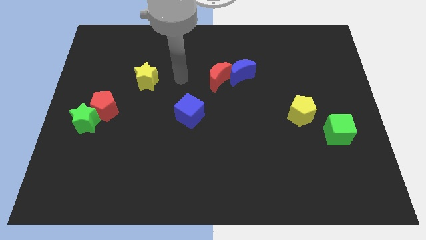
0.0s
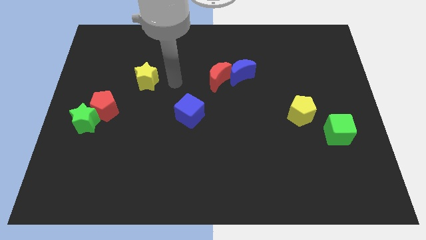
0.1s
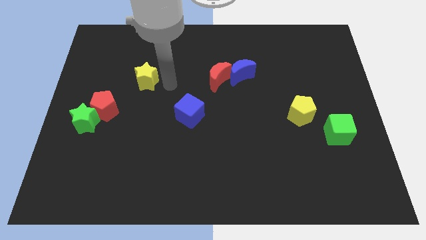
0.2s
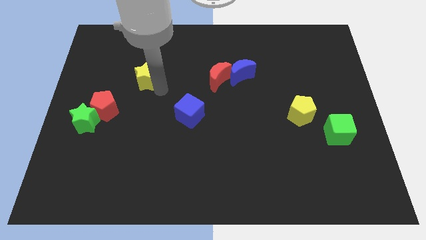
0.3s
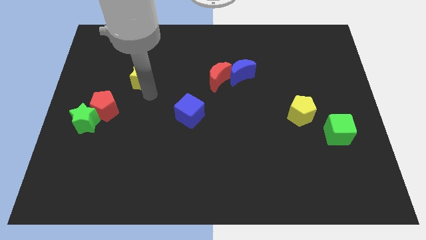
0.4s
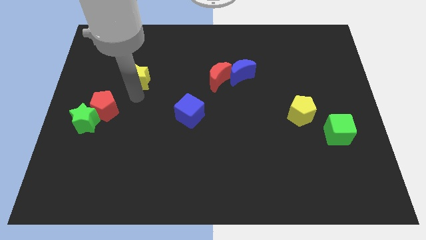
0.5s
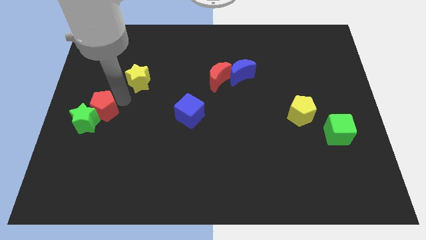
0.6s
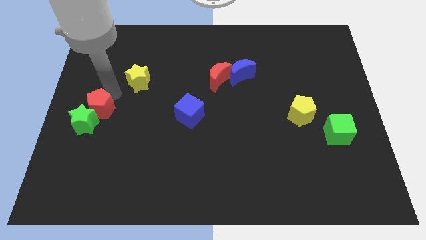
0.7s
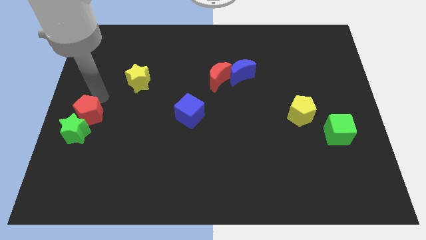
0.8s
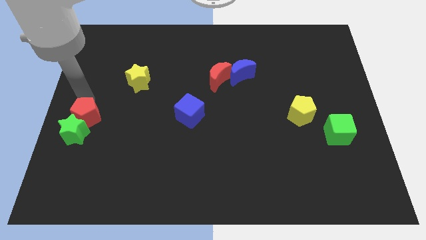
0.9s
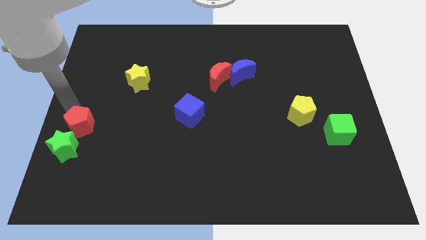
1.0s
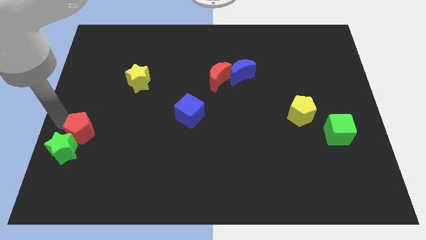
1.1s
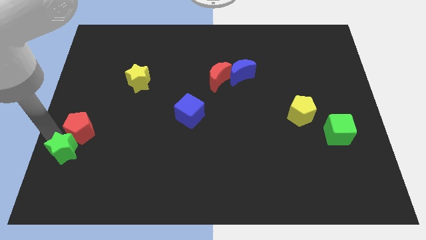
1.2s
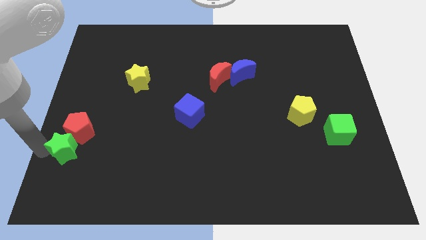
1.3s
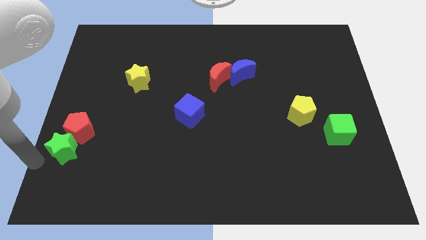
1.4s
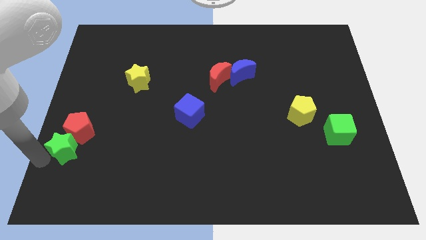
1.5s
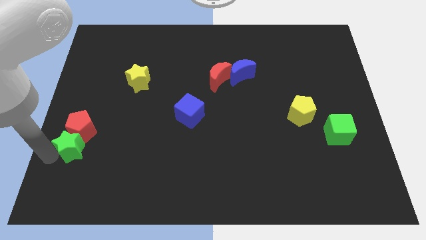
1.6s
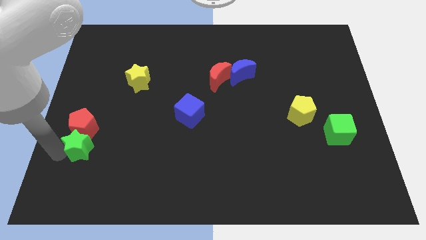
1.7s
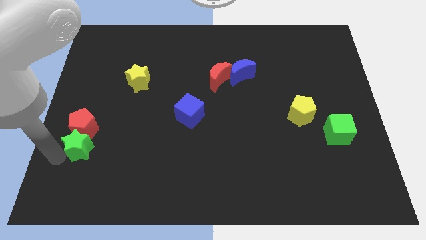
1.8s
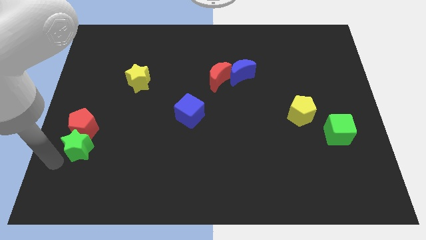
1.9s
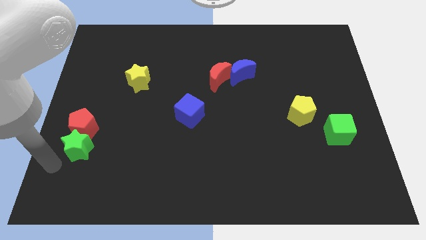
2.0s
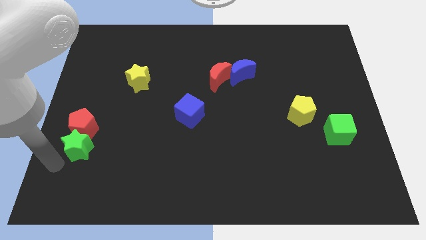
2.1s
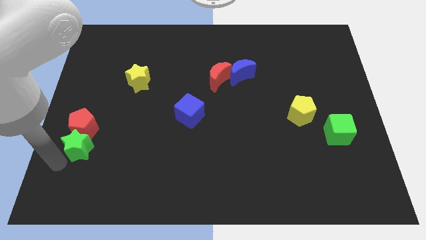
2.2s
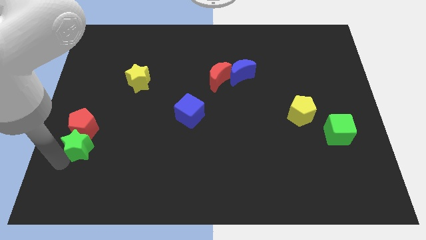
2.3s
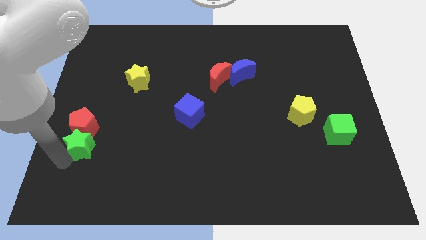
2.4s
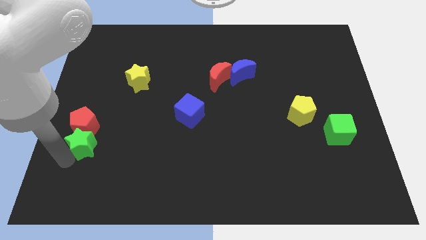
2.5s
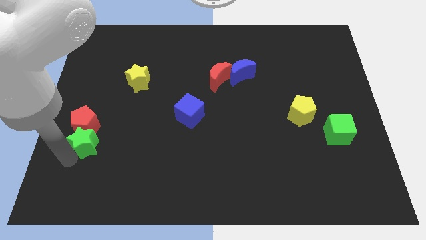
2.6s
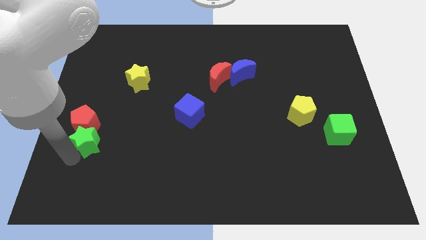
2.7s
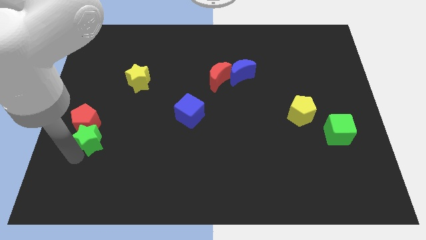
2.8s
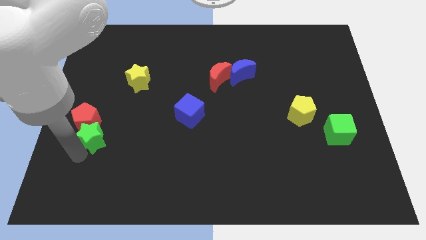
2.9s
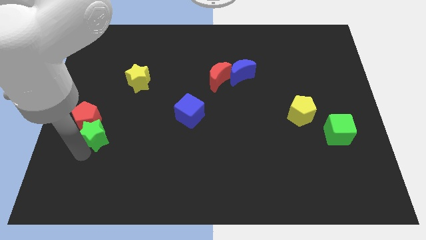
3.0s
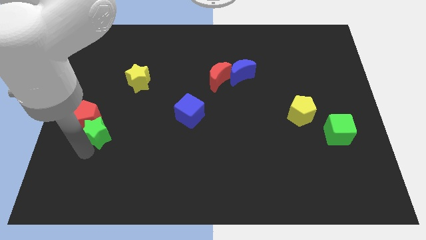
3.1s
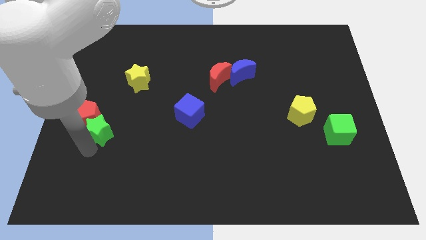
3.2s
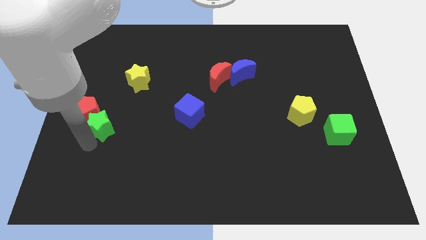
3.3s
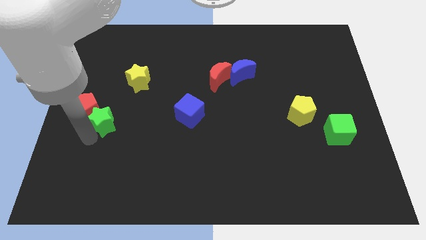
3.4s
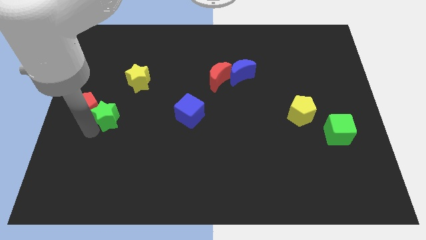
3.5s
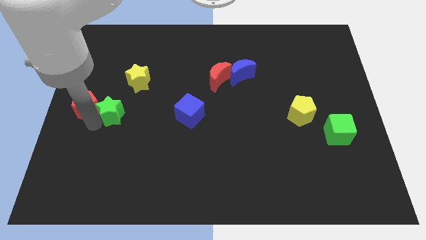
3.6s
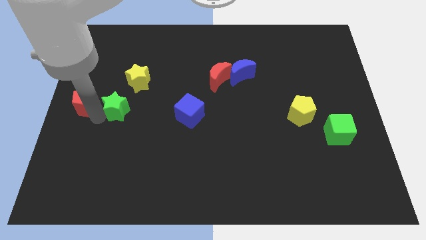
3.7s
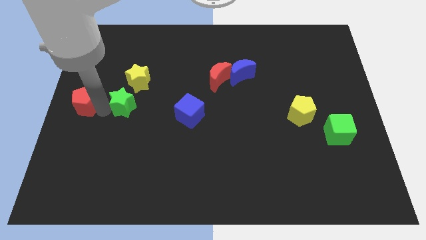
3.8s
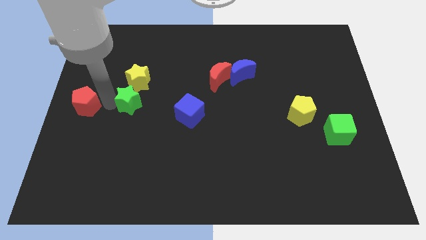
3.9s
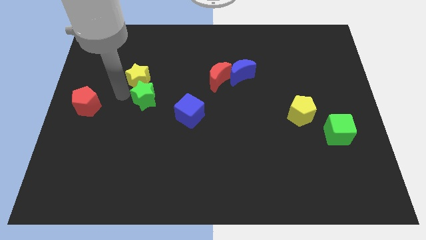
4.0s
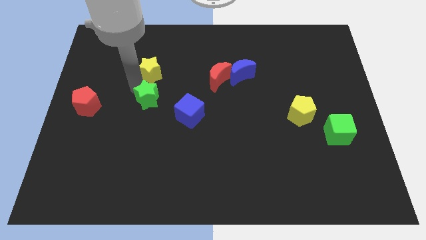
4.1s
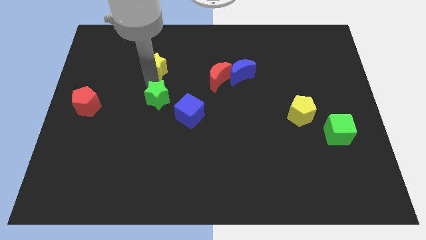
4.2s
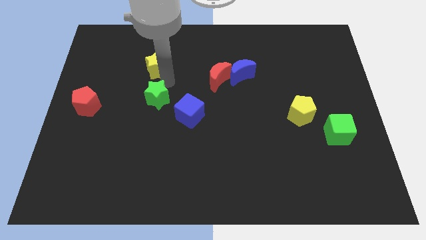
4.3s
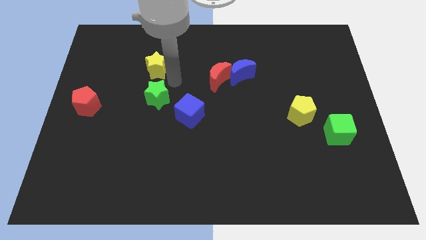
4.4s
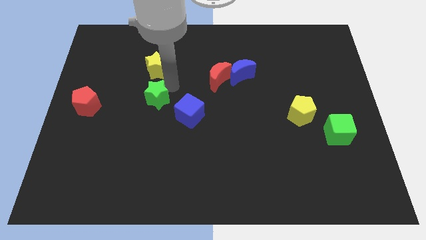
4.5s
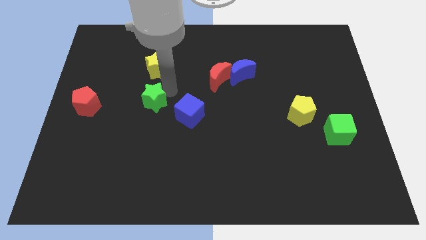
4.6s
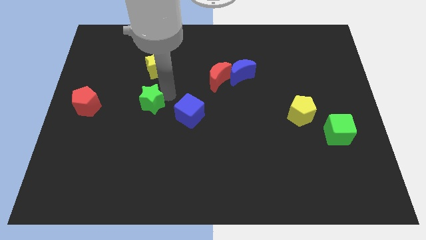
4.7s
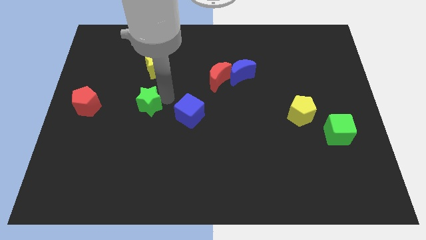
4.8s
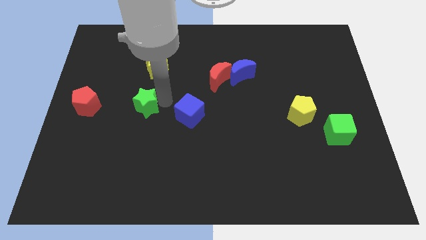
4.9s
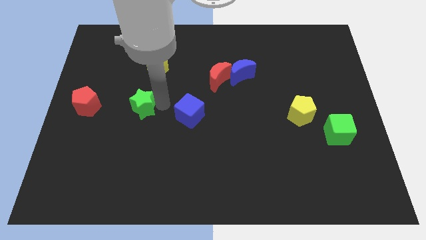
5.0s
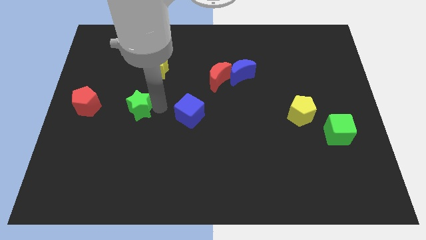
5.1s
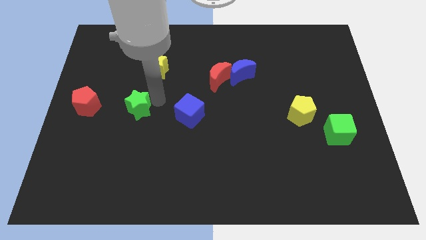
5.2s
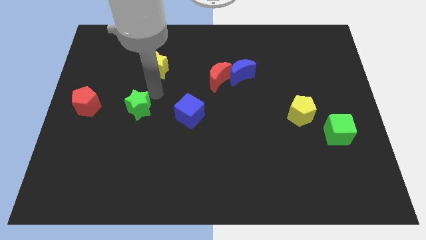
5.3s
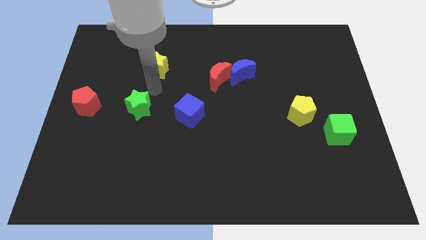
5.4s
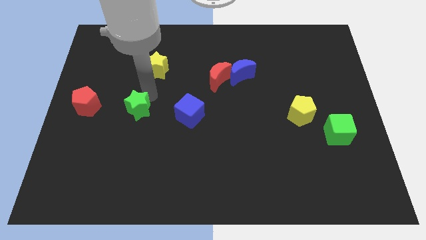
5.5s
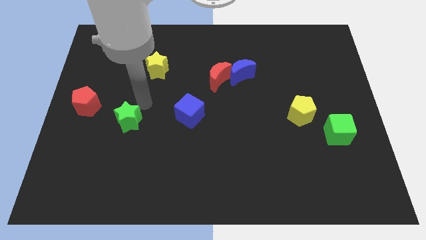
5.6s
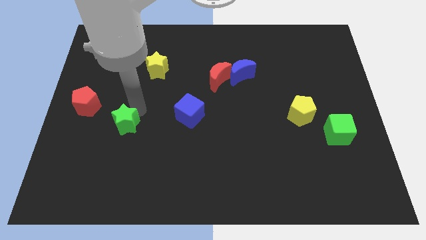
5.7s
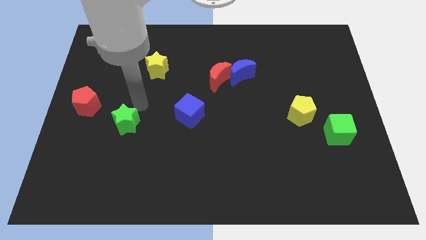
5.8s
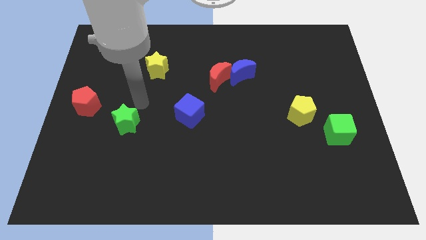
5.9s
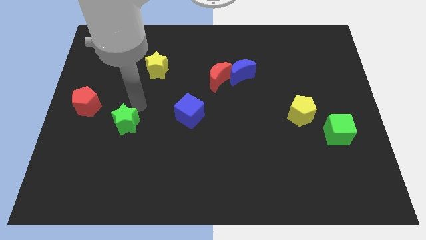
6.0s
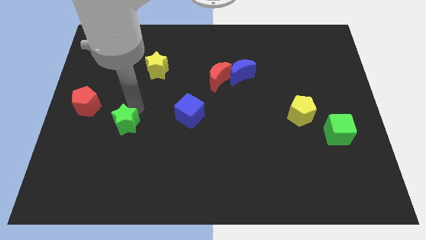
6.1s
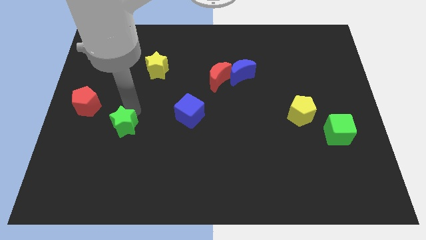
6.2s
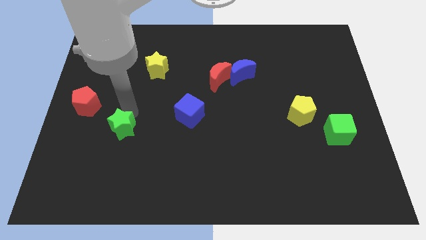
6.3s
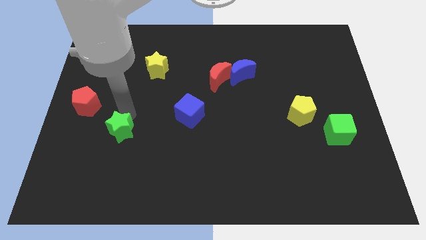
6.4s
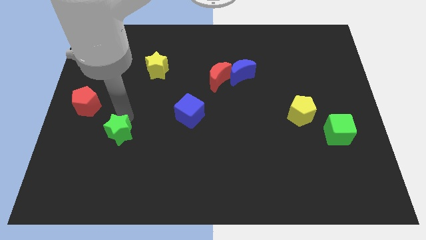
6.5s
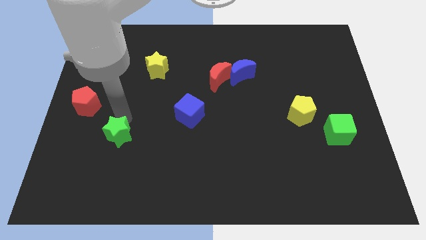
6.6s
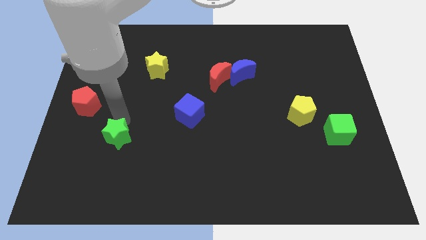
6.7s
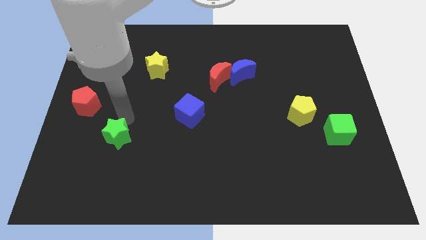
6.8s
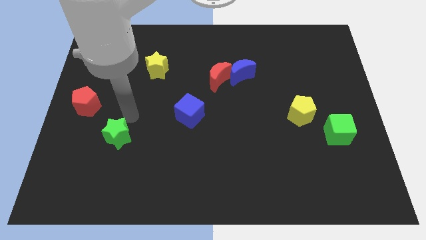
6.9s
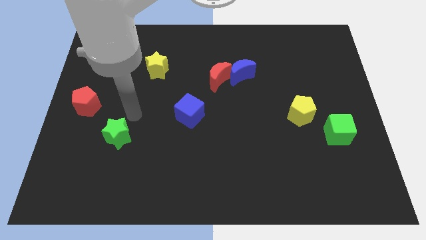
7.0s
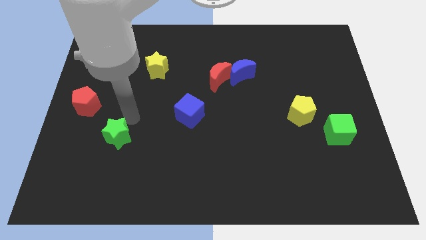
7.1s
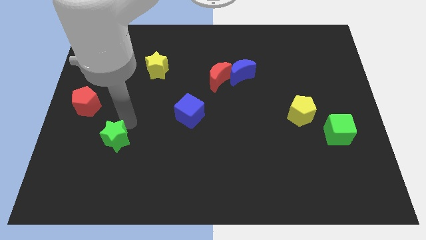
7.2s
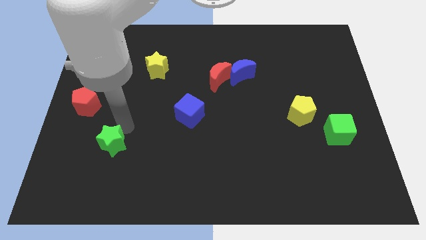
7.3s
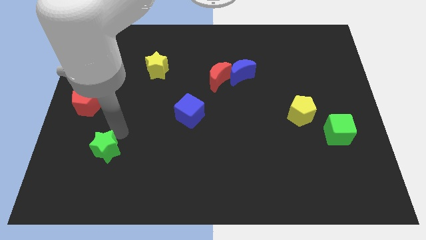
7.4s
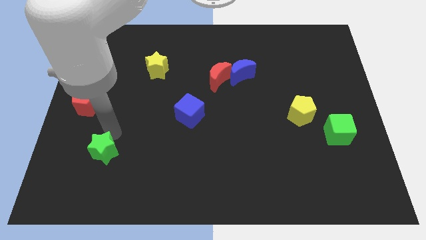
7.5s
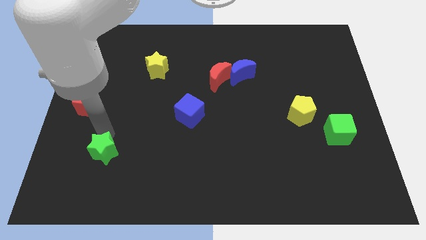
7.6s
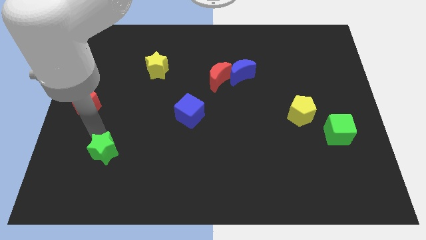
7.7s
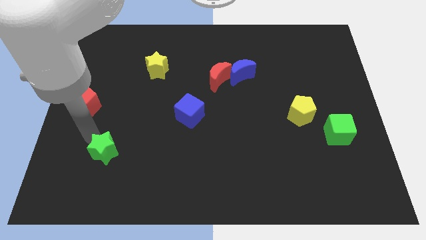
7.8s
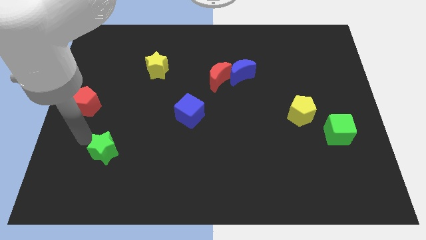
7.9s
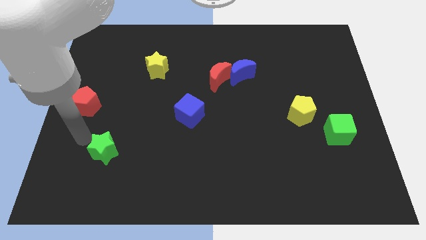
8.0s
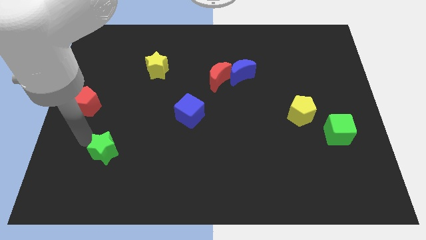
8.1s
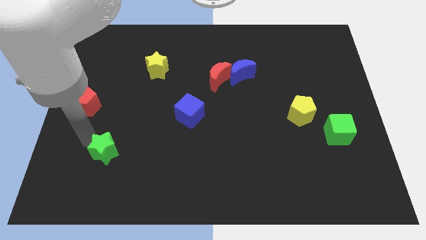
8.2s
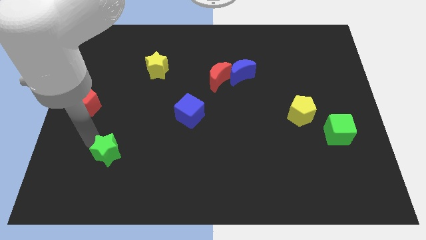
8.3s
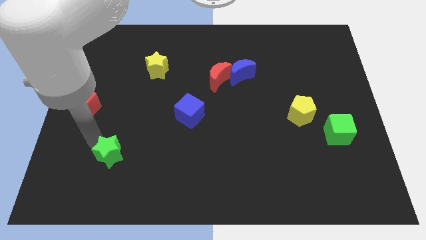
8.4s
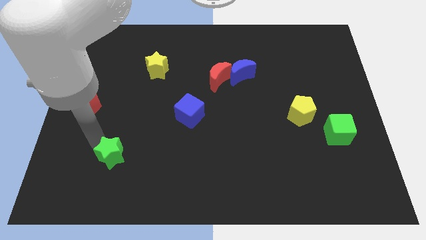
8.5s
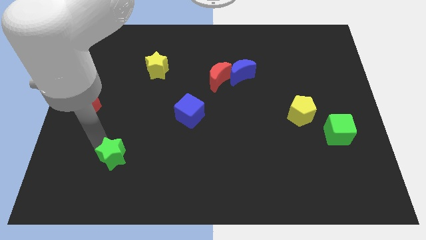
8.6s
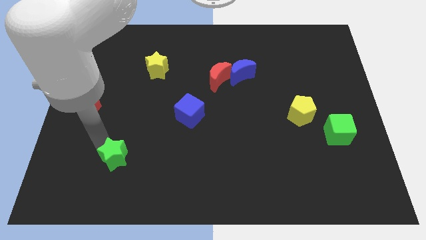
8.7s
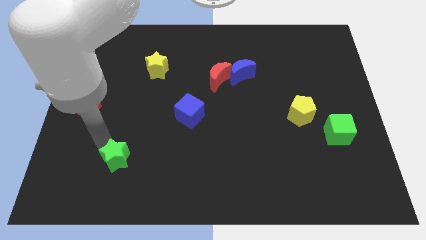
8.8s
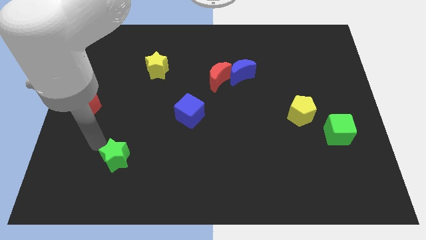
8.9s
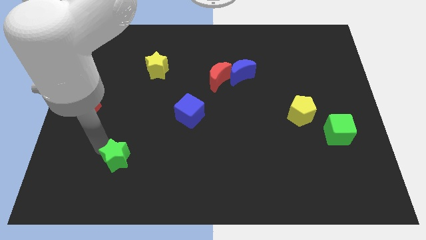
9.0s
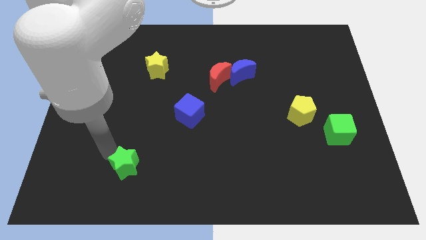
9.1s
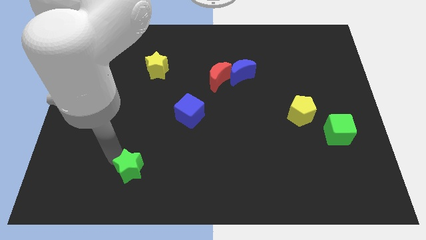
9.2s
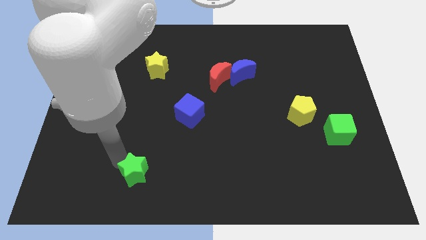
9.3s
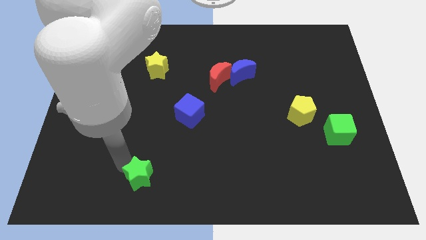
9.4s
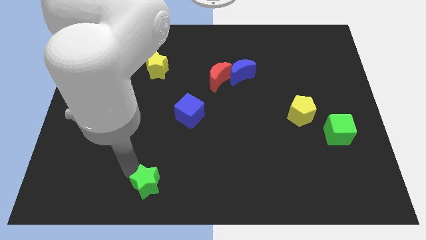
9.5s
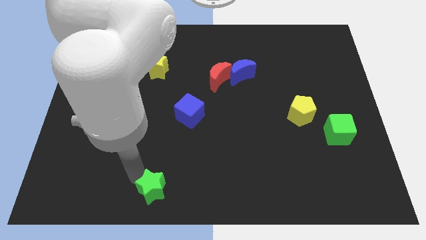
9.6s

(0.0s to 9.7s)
slide the green star to the bottom side
